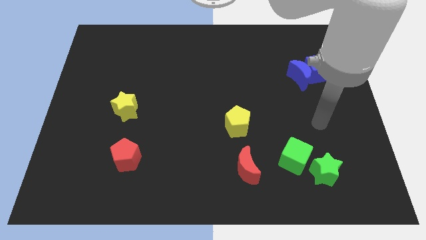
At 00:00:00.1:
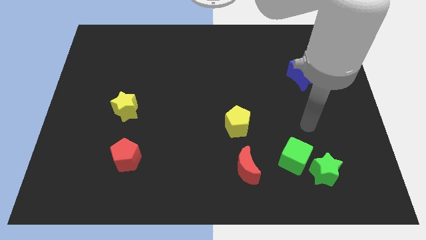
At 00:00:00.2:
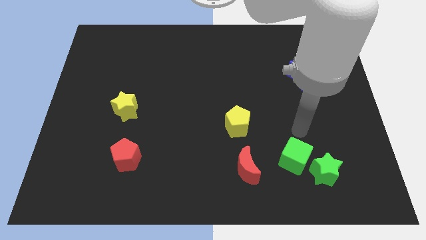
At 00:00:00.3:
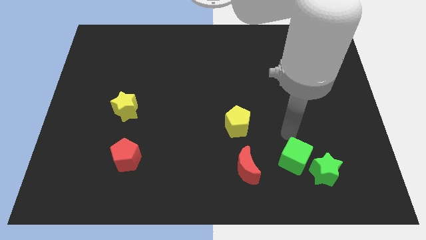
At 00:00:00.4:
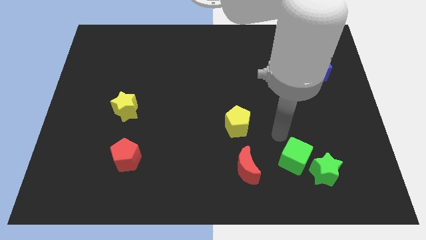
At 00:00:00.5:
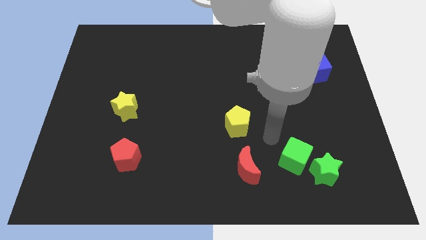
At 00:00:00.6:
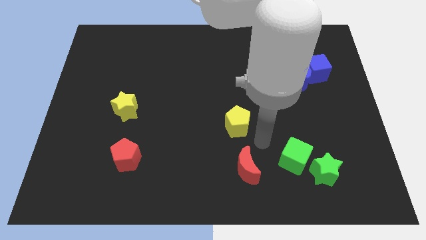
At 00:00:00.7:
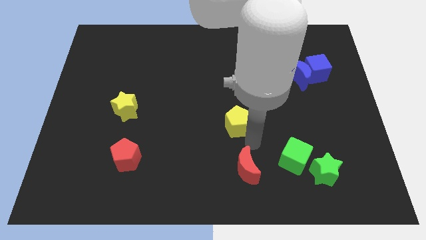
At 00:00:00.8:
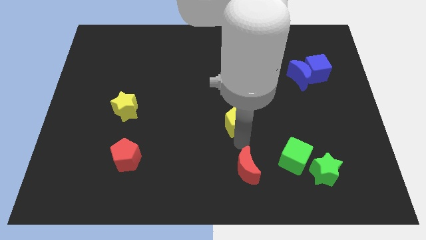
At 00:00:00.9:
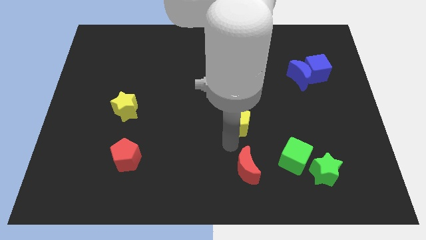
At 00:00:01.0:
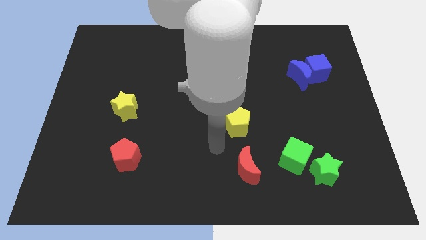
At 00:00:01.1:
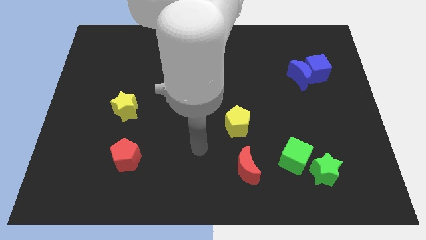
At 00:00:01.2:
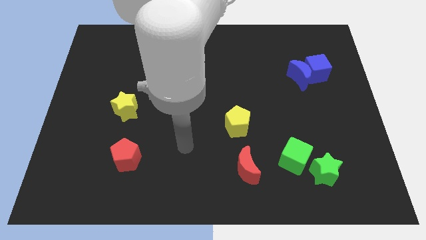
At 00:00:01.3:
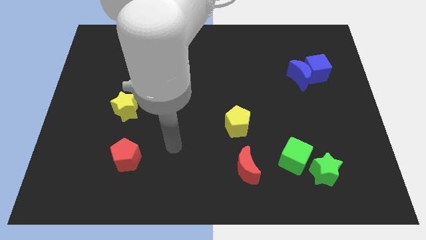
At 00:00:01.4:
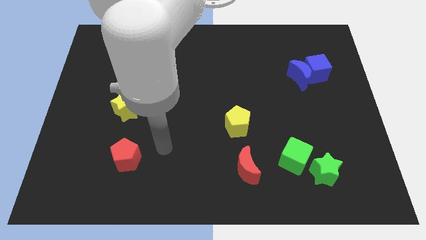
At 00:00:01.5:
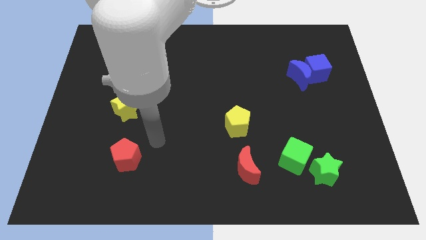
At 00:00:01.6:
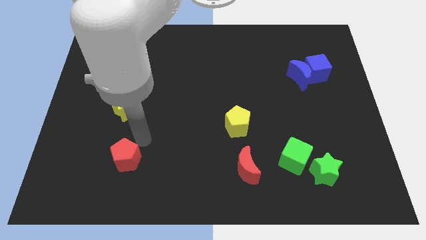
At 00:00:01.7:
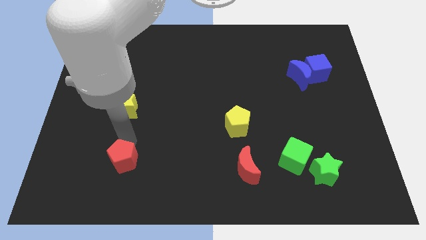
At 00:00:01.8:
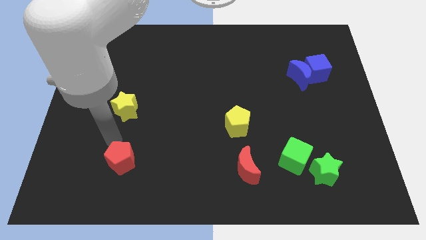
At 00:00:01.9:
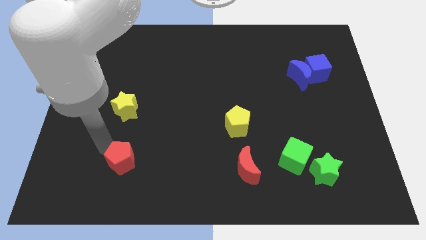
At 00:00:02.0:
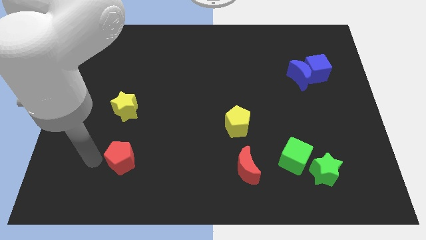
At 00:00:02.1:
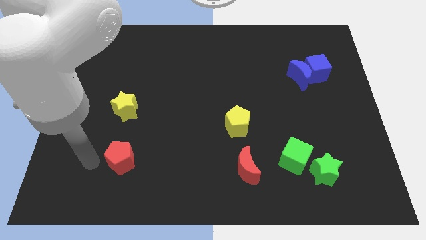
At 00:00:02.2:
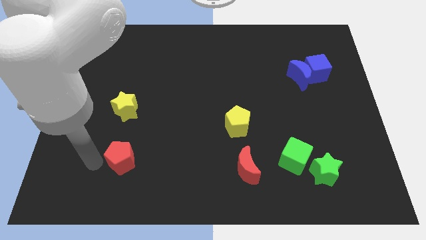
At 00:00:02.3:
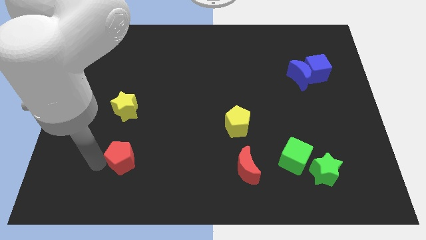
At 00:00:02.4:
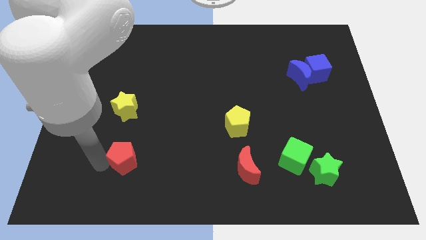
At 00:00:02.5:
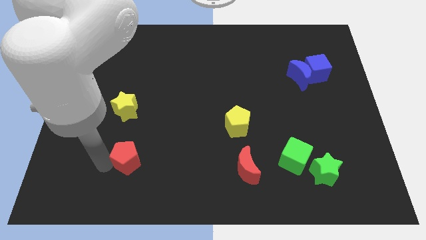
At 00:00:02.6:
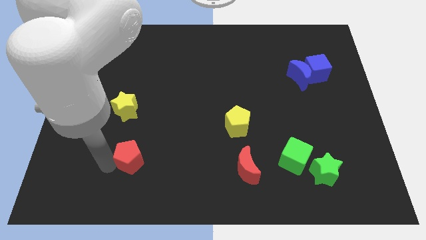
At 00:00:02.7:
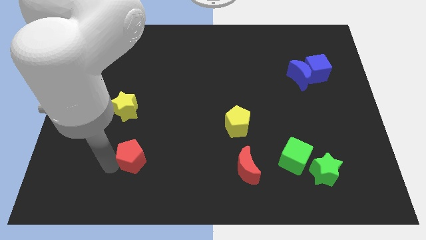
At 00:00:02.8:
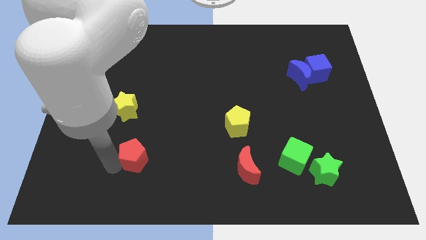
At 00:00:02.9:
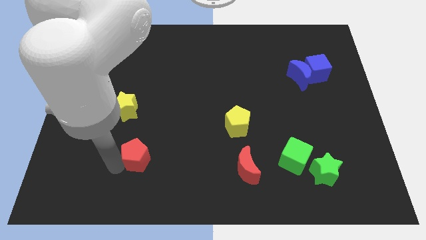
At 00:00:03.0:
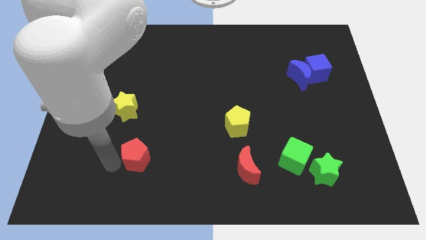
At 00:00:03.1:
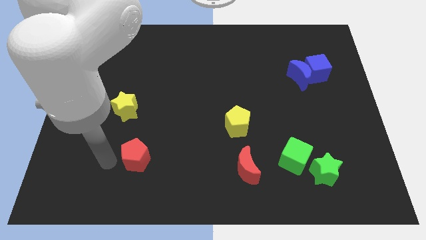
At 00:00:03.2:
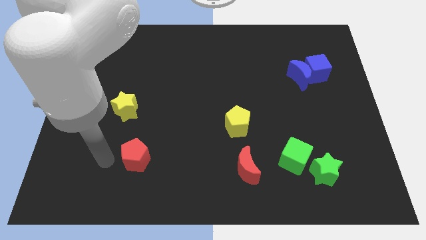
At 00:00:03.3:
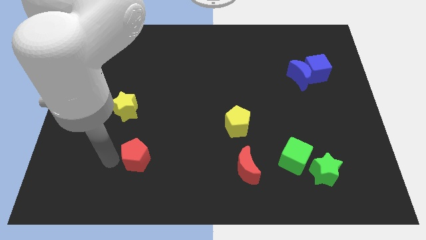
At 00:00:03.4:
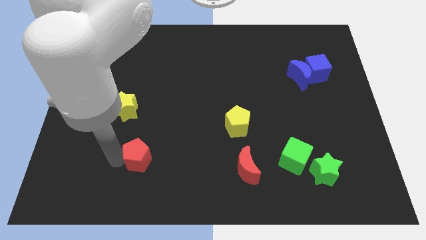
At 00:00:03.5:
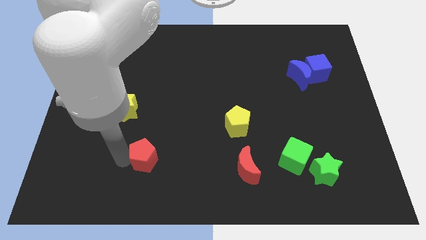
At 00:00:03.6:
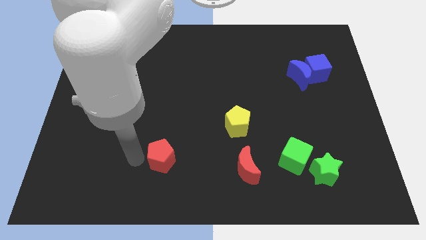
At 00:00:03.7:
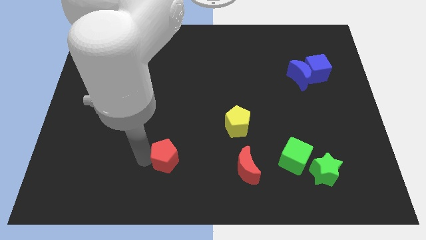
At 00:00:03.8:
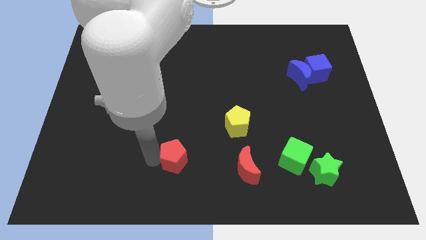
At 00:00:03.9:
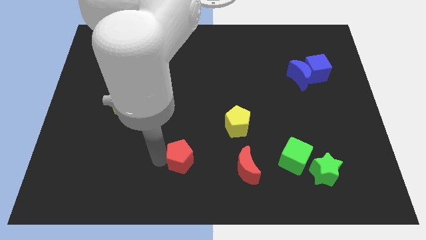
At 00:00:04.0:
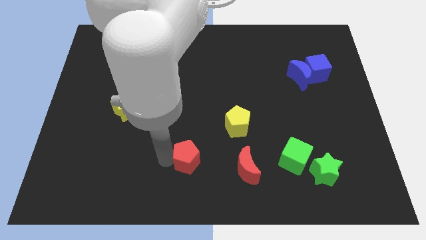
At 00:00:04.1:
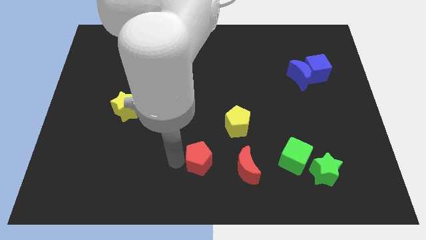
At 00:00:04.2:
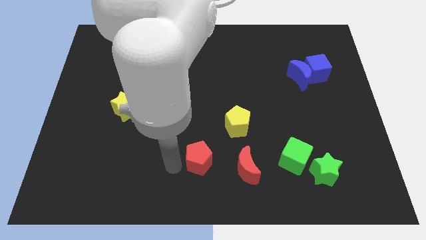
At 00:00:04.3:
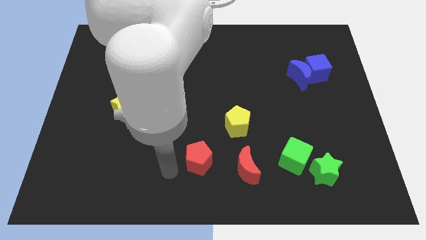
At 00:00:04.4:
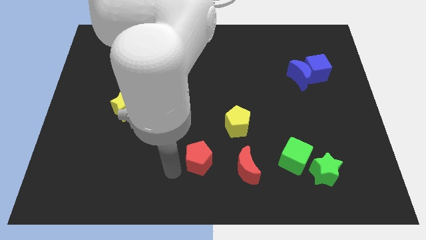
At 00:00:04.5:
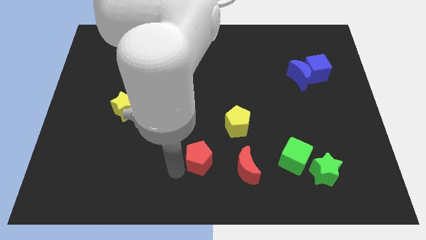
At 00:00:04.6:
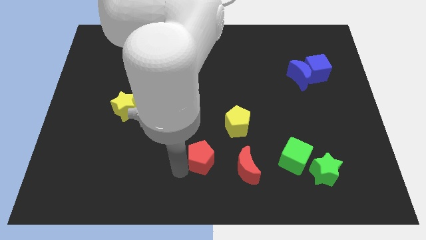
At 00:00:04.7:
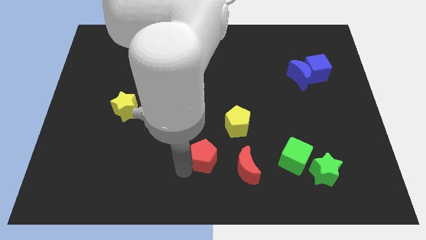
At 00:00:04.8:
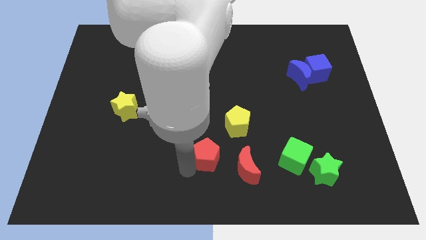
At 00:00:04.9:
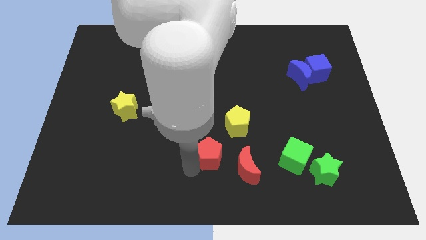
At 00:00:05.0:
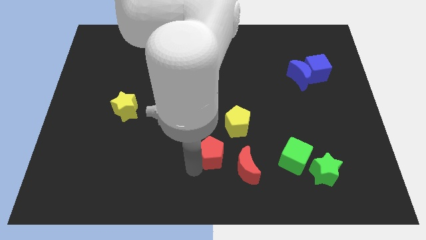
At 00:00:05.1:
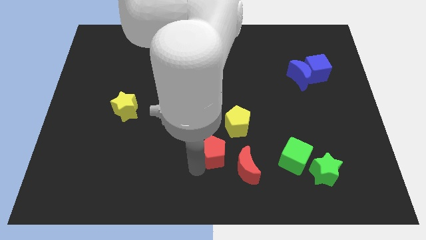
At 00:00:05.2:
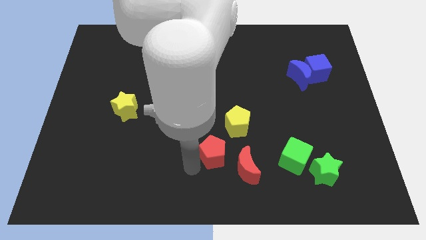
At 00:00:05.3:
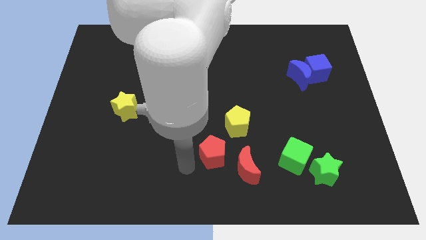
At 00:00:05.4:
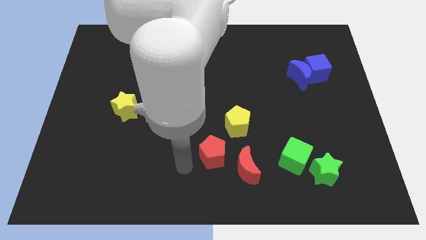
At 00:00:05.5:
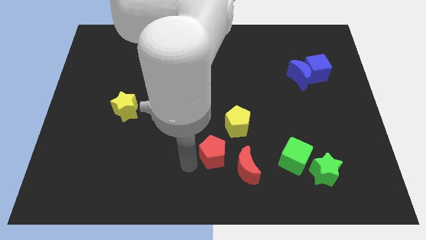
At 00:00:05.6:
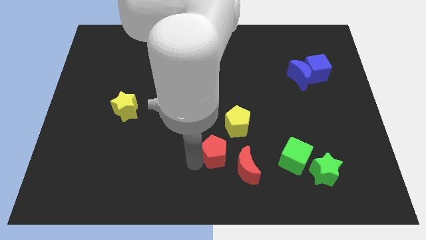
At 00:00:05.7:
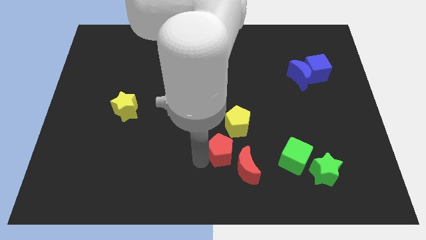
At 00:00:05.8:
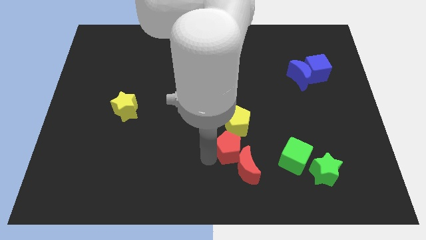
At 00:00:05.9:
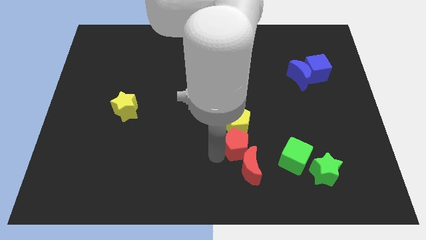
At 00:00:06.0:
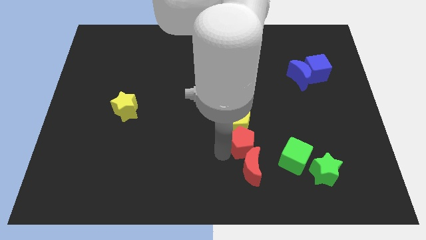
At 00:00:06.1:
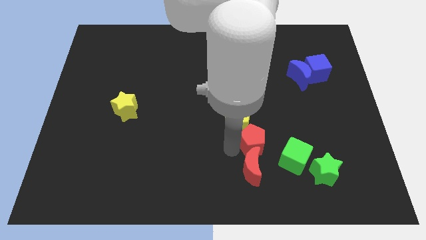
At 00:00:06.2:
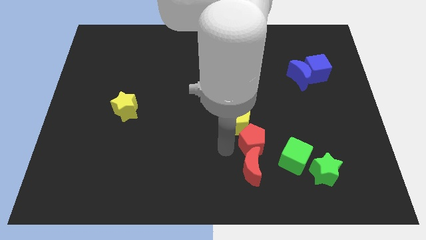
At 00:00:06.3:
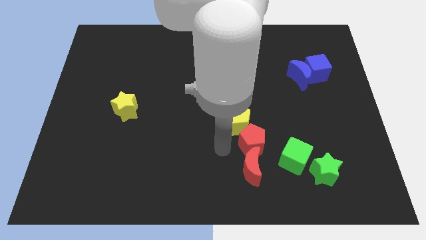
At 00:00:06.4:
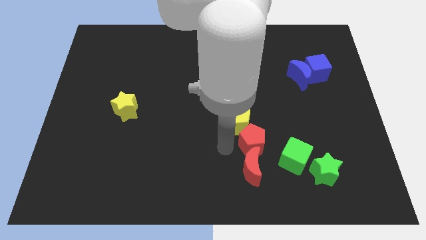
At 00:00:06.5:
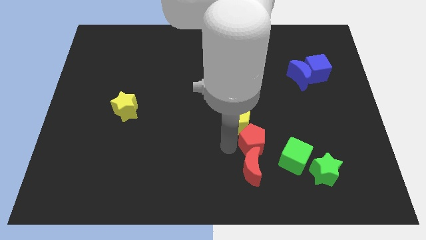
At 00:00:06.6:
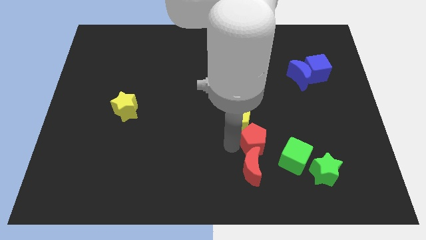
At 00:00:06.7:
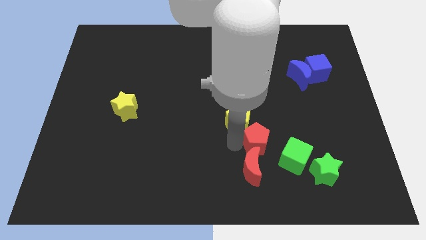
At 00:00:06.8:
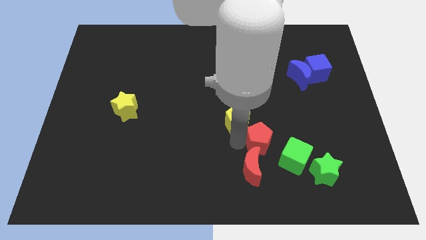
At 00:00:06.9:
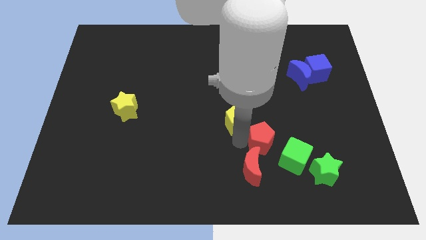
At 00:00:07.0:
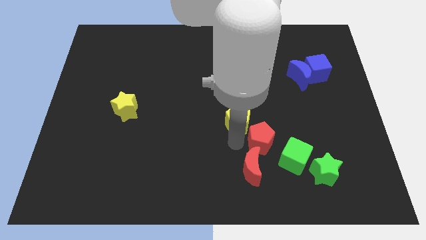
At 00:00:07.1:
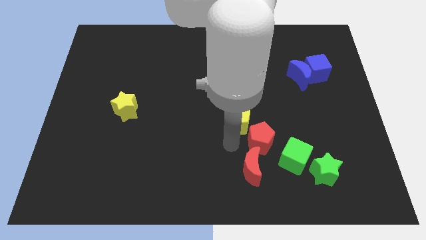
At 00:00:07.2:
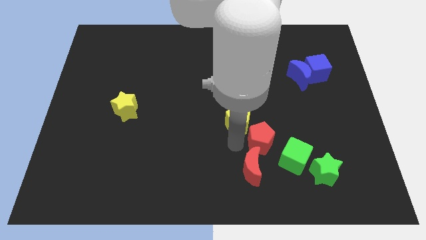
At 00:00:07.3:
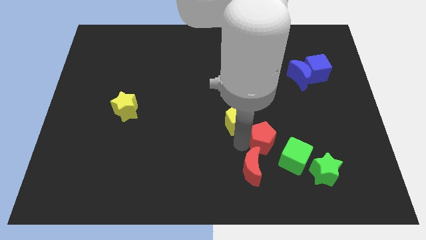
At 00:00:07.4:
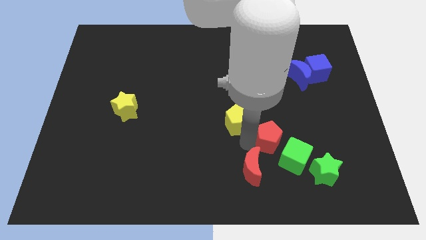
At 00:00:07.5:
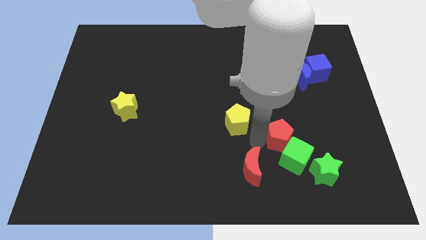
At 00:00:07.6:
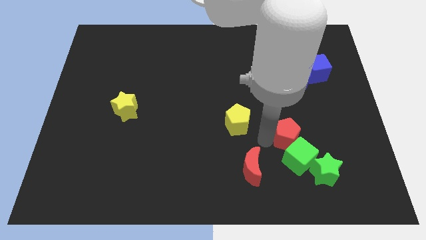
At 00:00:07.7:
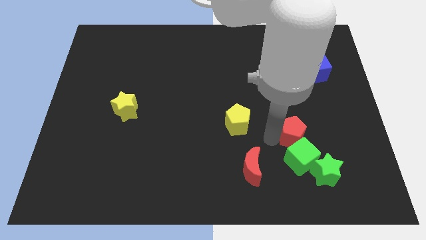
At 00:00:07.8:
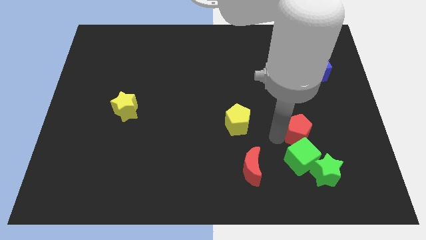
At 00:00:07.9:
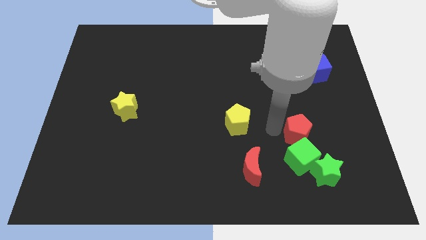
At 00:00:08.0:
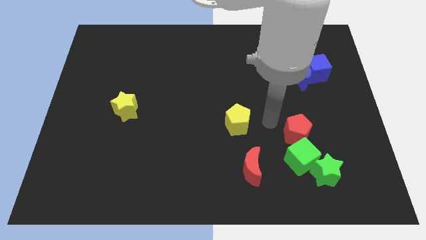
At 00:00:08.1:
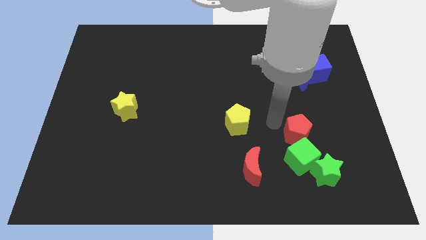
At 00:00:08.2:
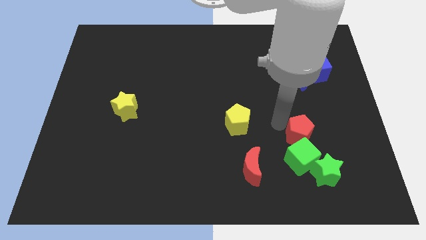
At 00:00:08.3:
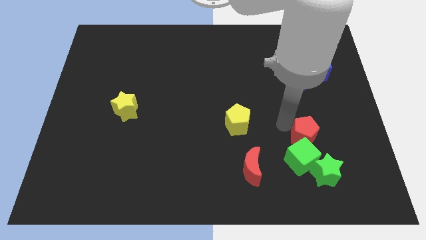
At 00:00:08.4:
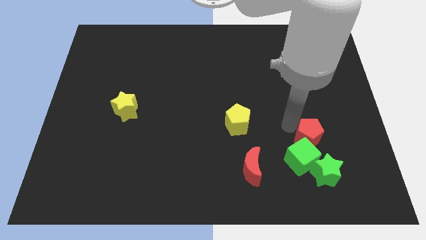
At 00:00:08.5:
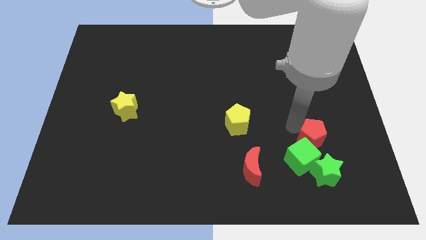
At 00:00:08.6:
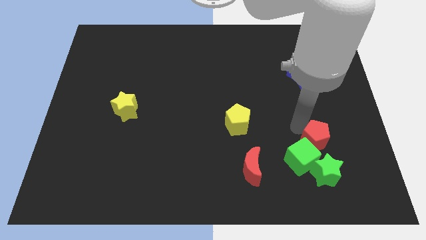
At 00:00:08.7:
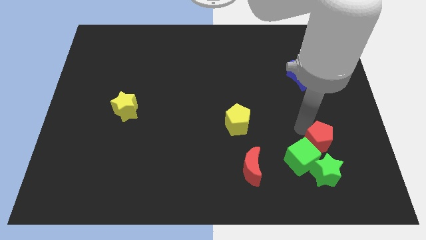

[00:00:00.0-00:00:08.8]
slide the red pentagon just right of the green cube
